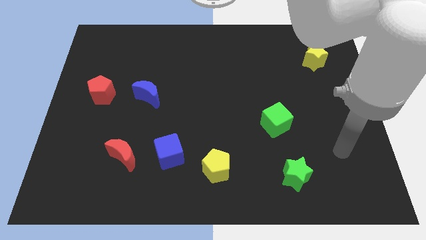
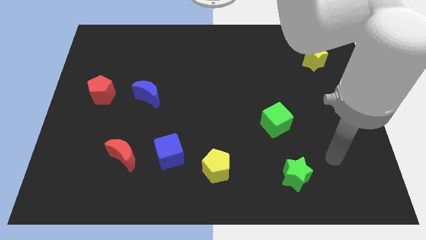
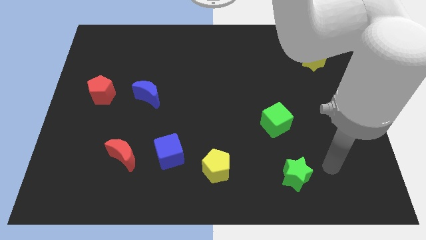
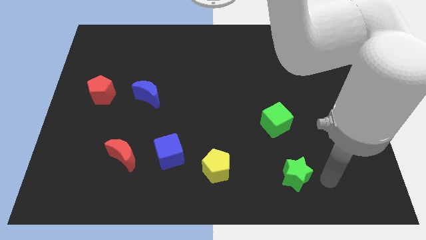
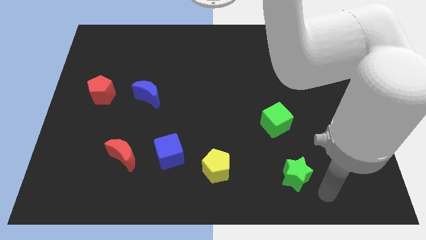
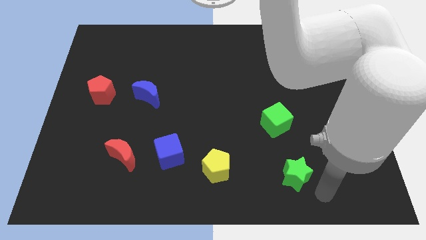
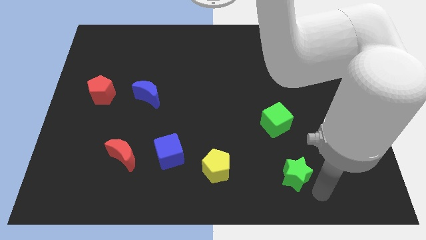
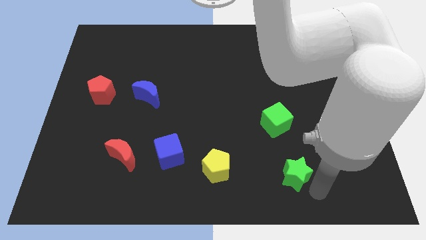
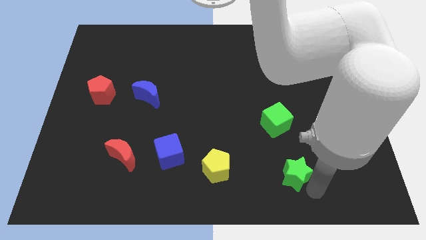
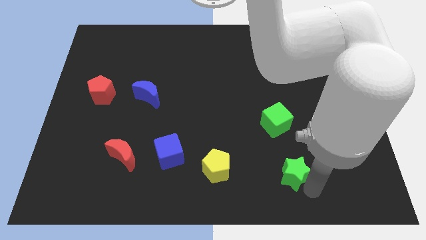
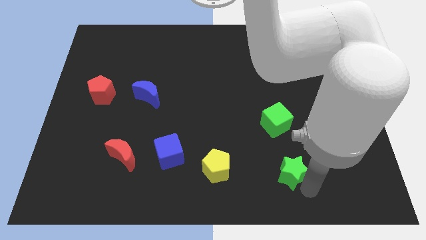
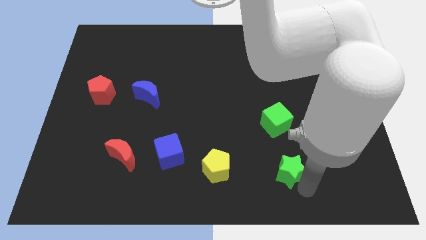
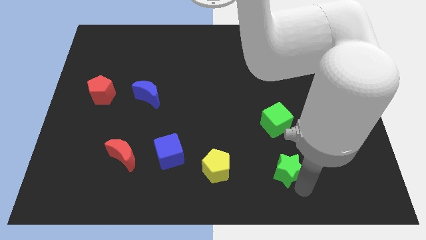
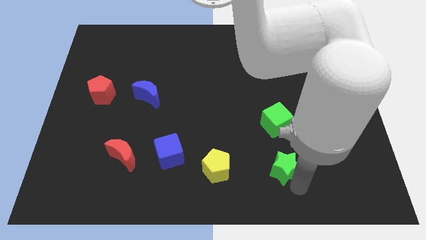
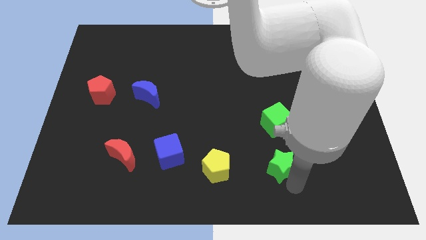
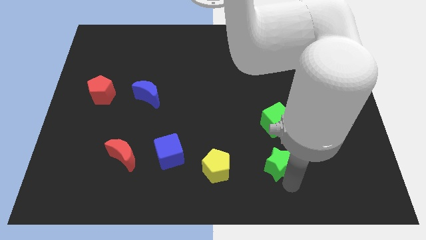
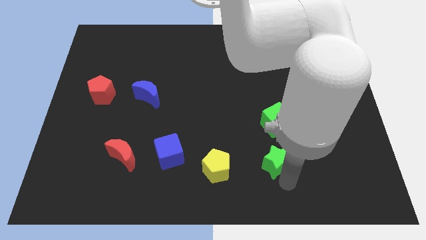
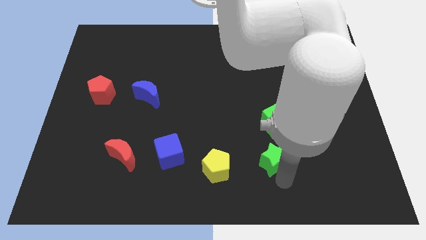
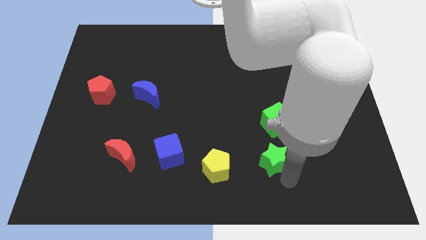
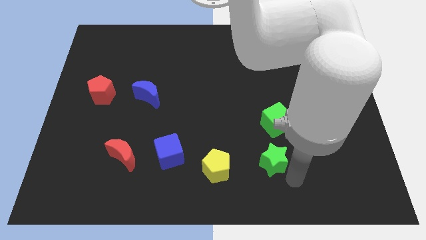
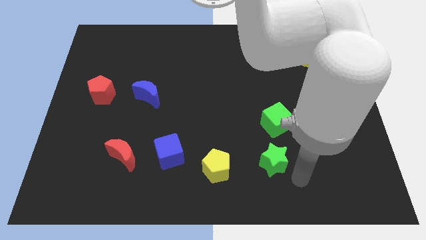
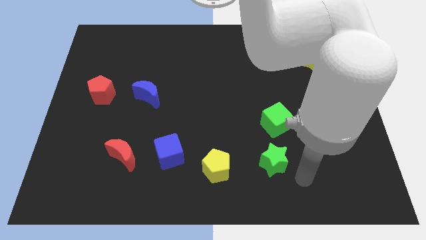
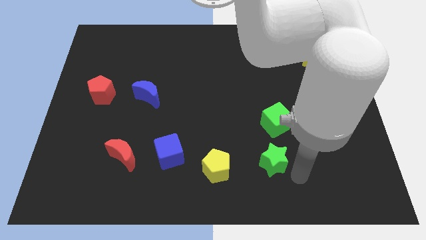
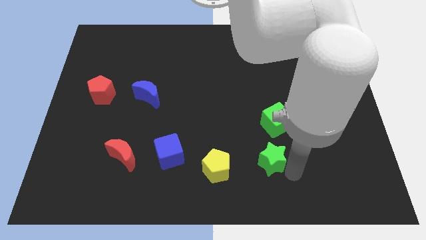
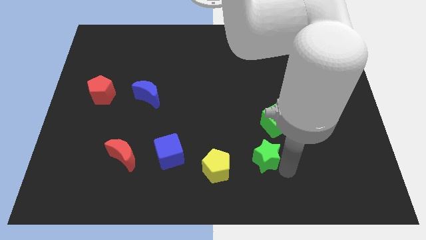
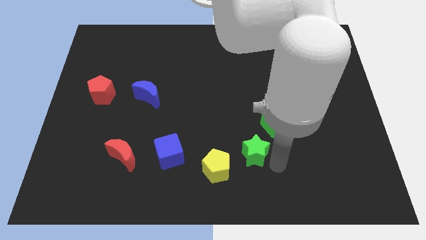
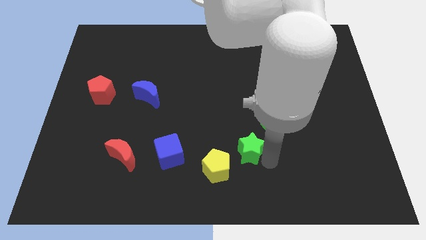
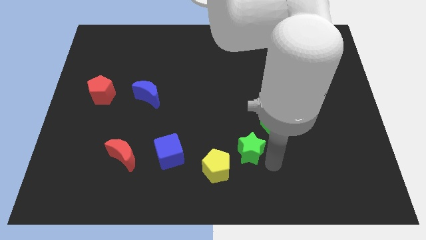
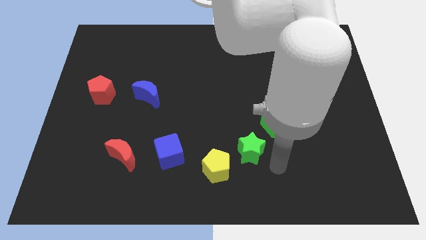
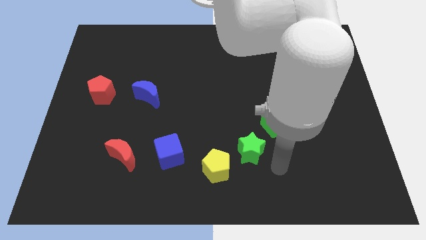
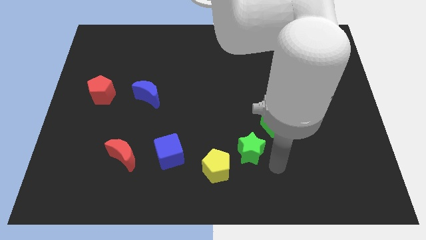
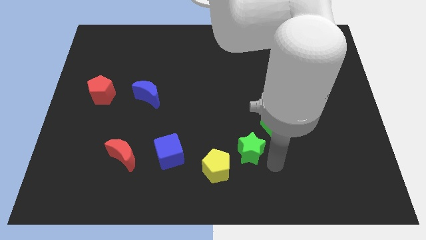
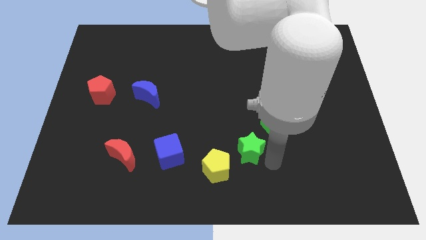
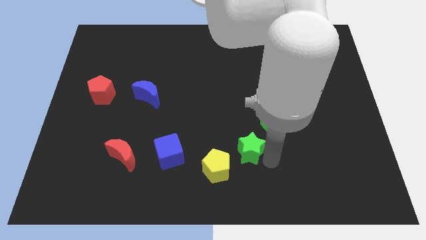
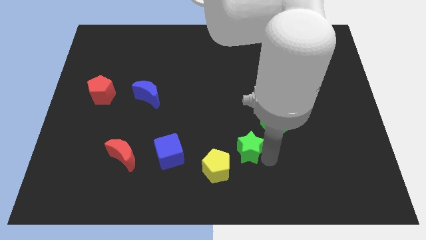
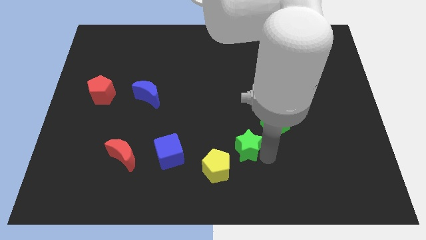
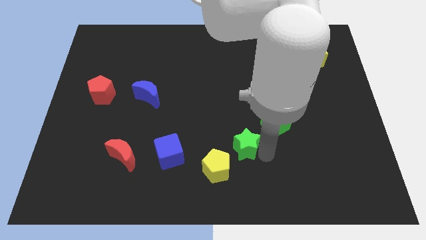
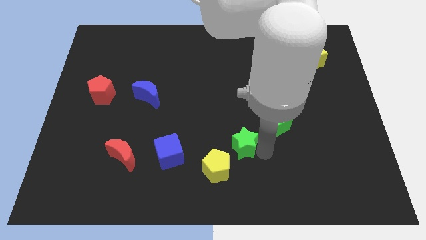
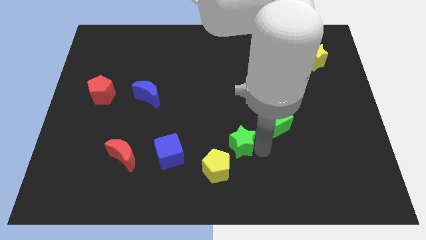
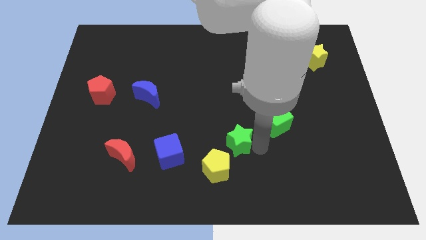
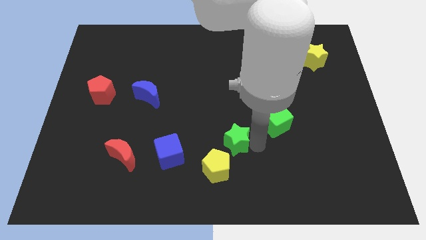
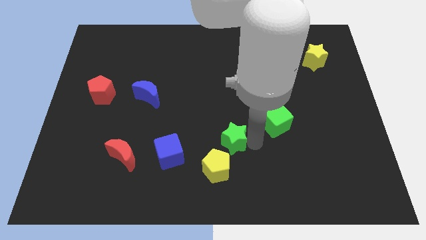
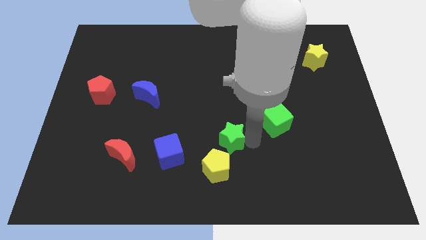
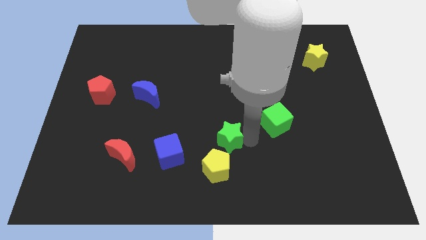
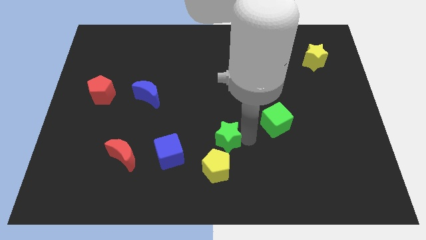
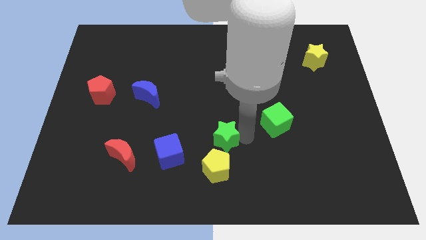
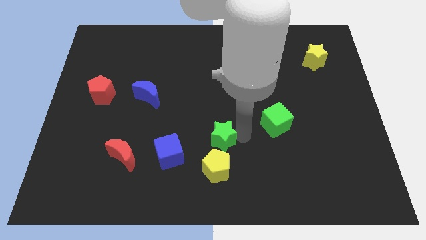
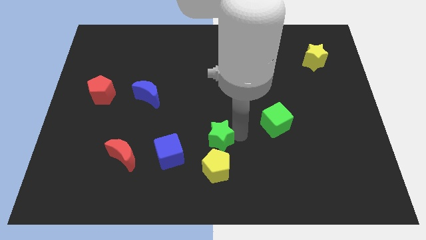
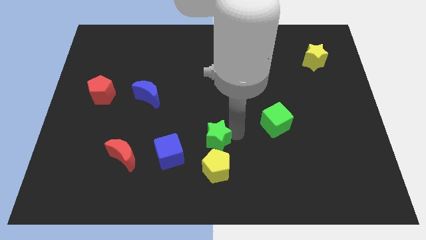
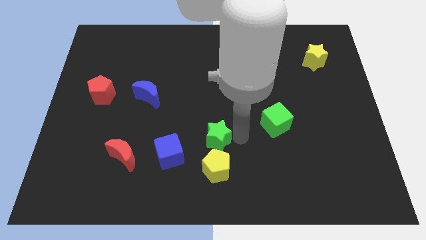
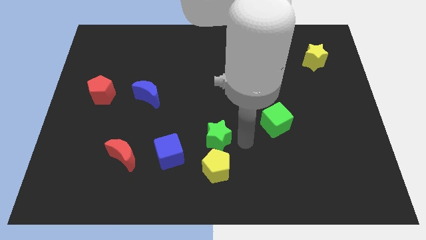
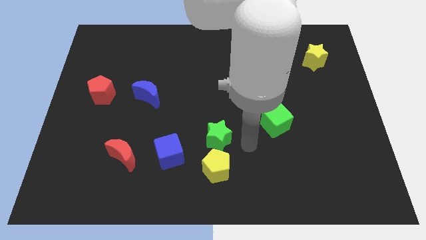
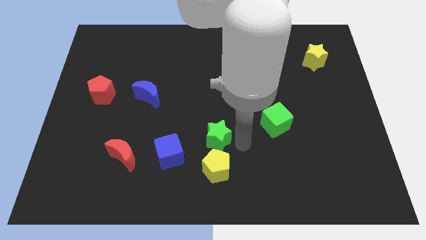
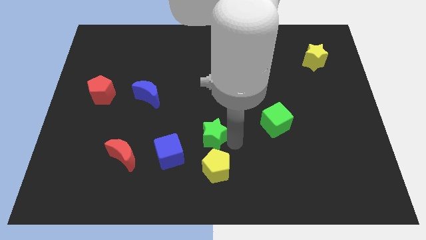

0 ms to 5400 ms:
move the green star to the top right side of the blue cube

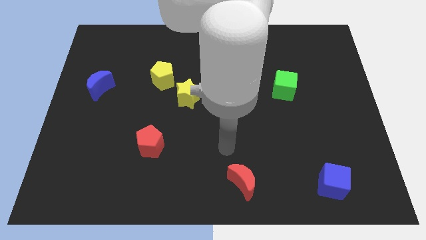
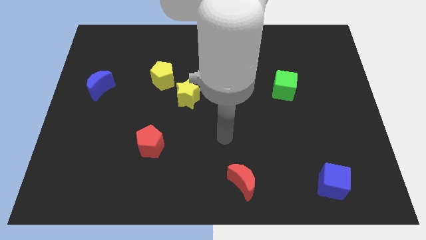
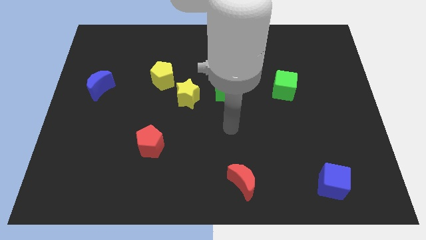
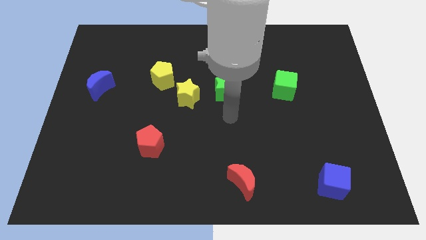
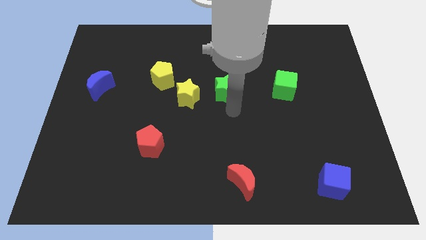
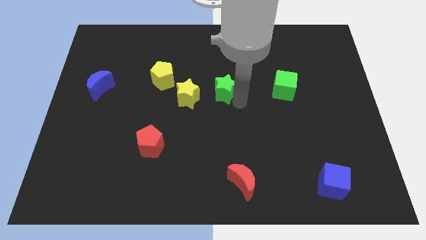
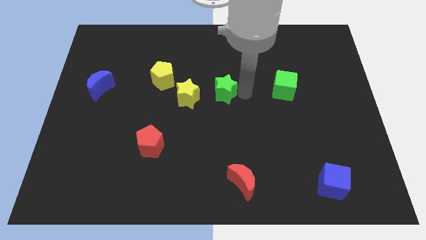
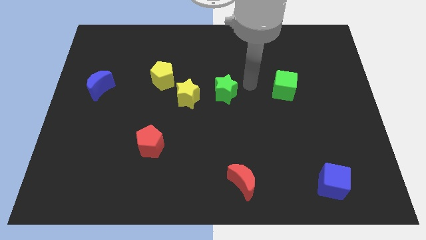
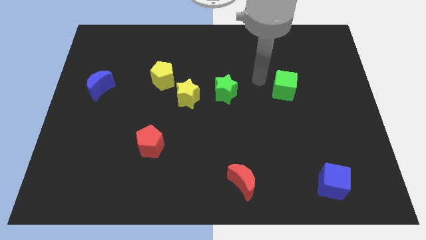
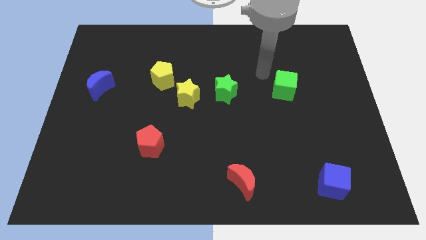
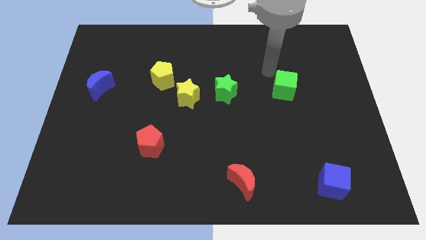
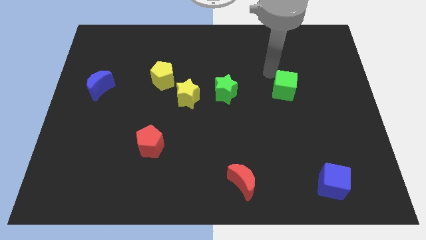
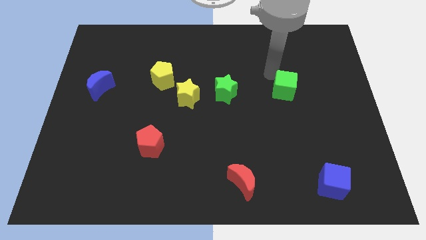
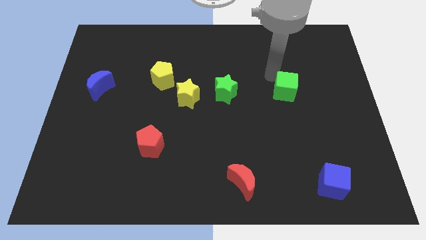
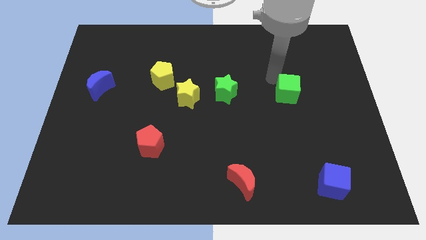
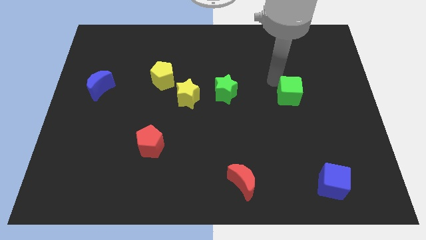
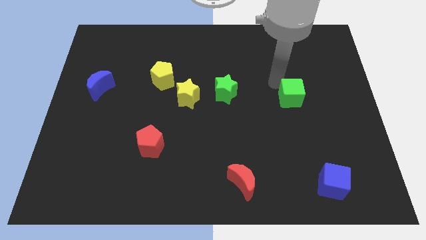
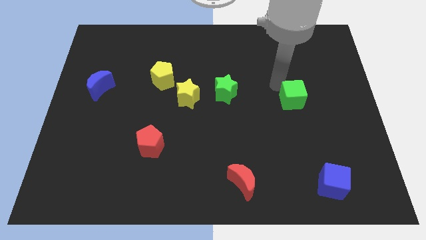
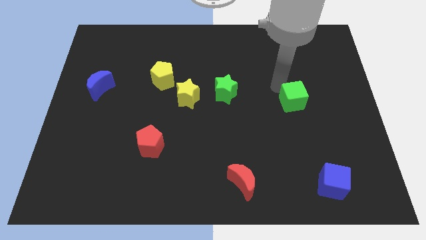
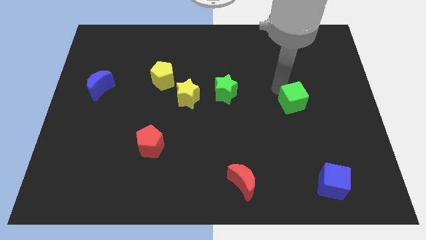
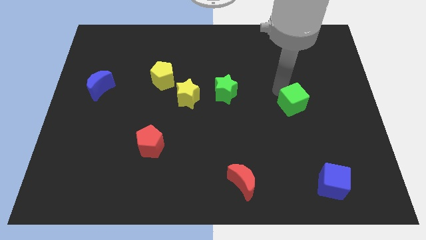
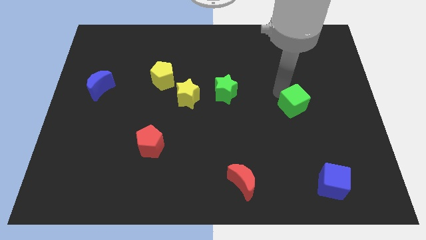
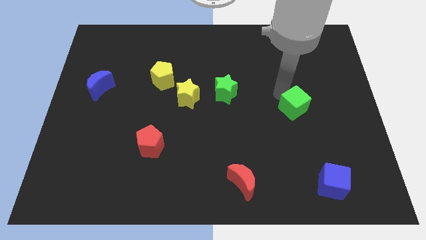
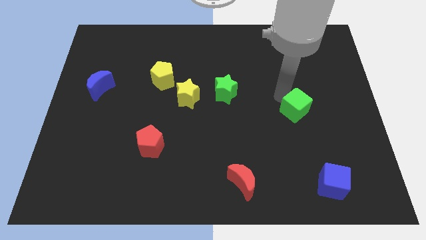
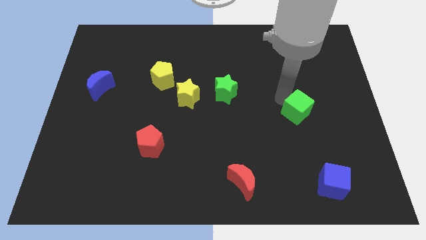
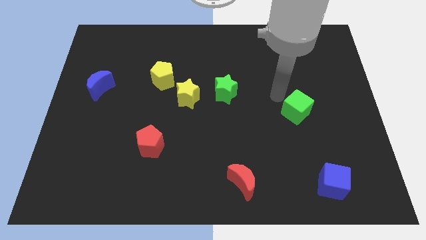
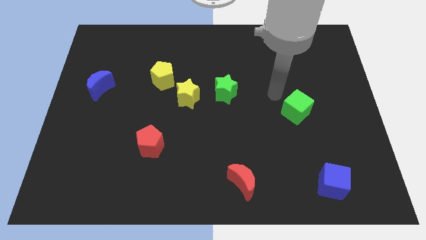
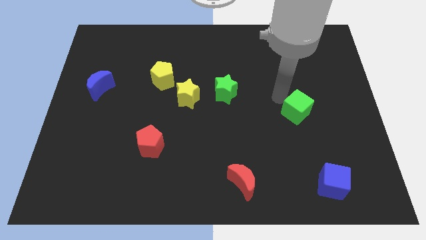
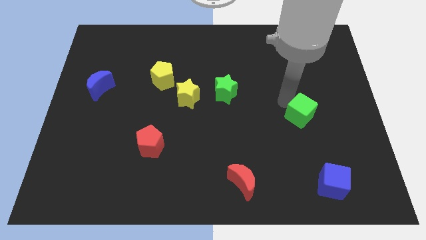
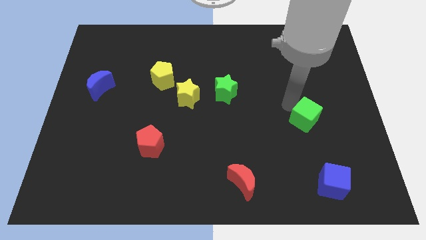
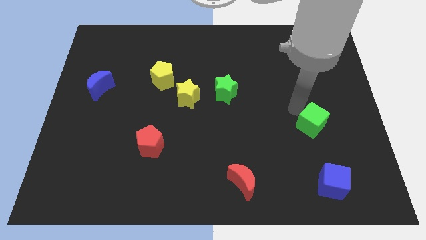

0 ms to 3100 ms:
push the green cube to the top of the blue cube
